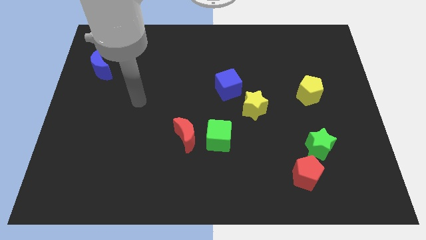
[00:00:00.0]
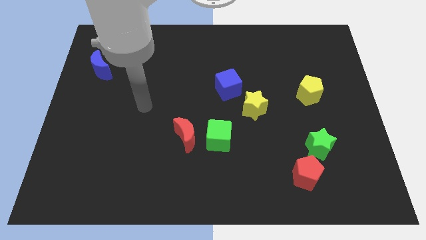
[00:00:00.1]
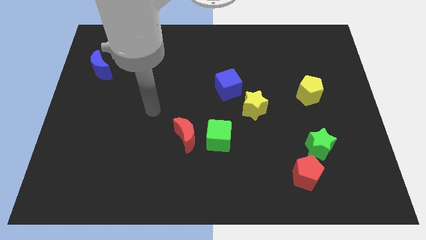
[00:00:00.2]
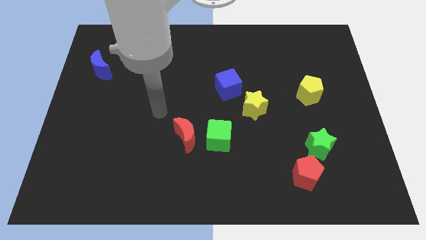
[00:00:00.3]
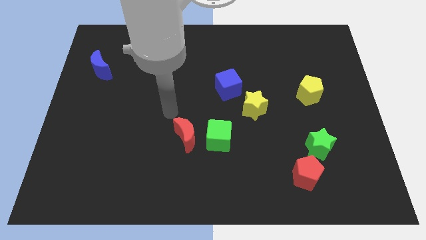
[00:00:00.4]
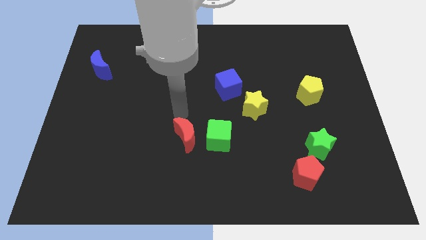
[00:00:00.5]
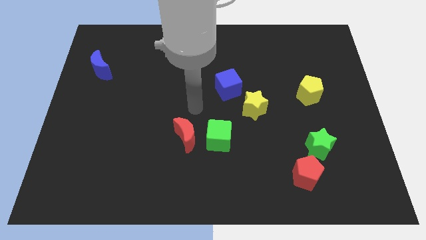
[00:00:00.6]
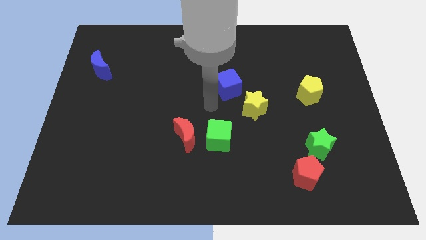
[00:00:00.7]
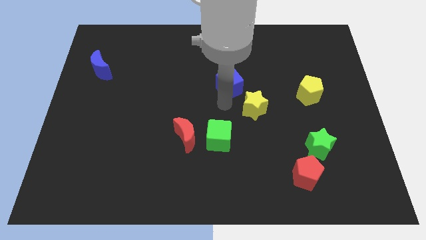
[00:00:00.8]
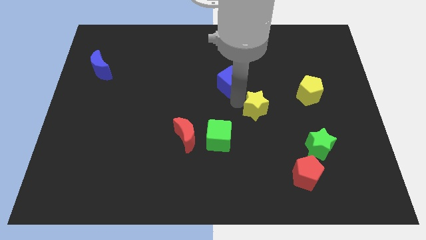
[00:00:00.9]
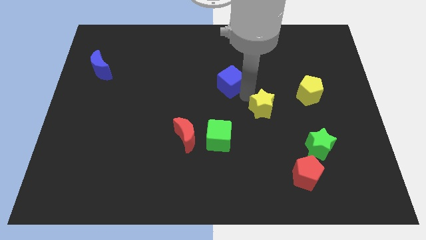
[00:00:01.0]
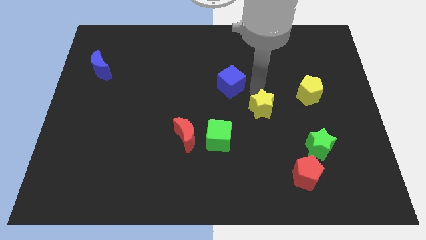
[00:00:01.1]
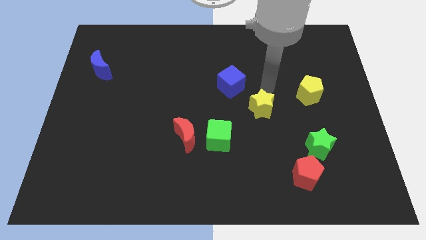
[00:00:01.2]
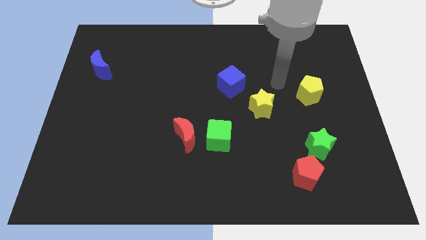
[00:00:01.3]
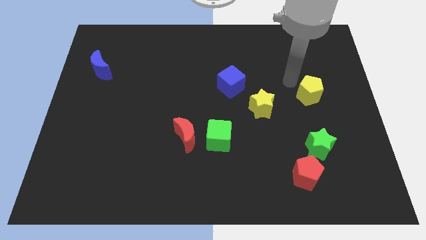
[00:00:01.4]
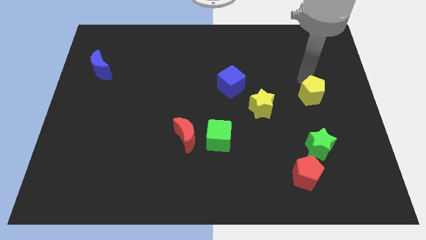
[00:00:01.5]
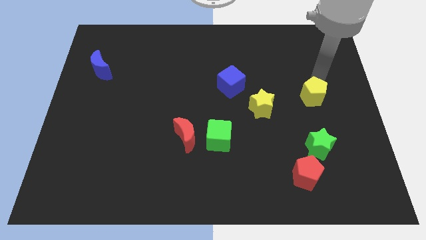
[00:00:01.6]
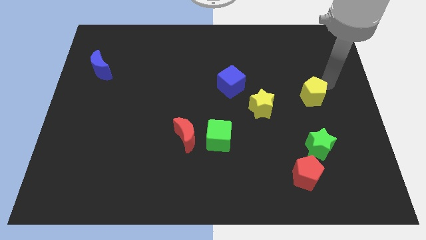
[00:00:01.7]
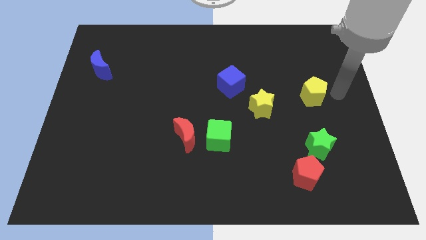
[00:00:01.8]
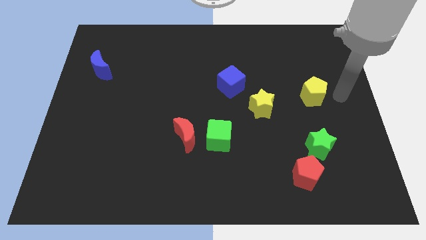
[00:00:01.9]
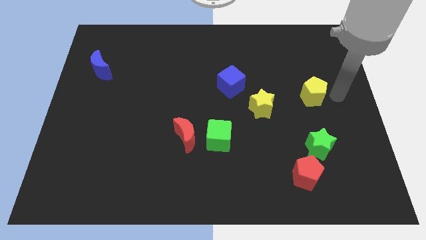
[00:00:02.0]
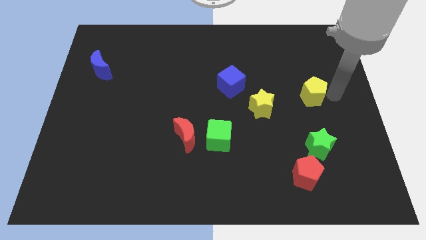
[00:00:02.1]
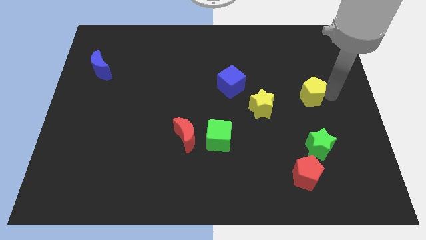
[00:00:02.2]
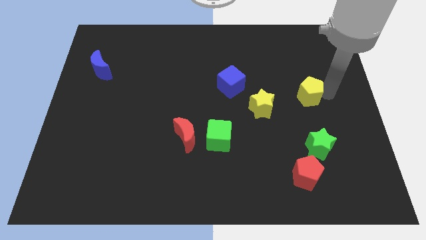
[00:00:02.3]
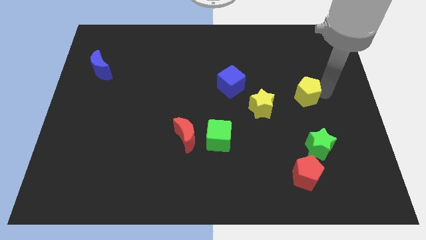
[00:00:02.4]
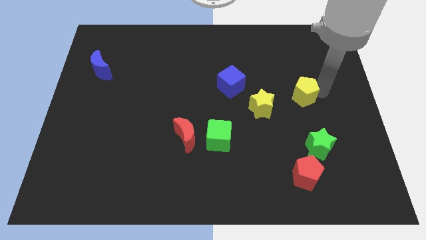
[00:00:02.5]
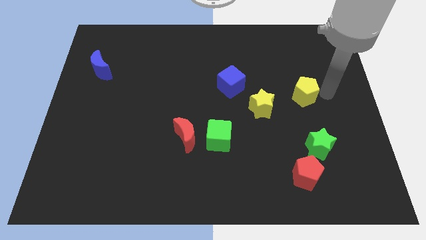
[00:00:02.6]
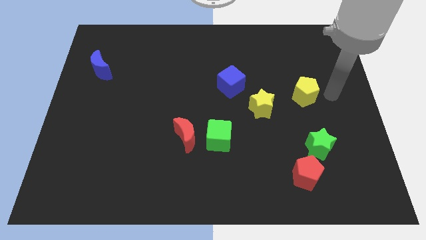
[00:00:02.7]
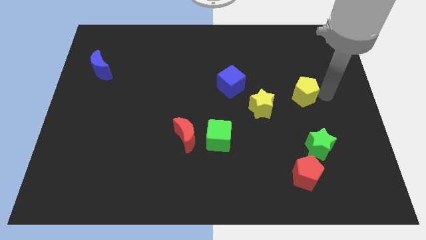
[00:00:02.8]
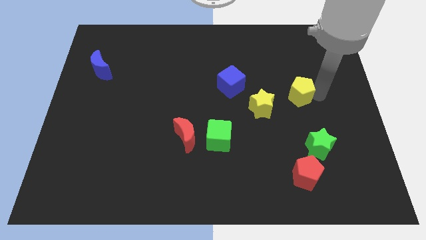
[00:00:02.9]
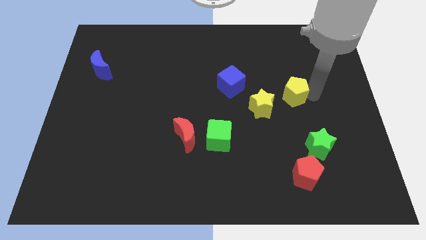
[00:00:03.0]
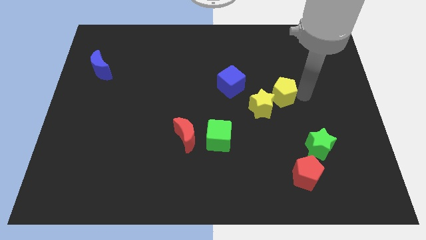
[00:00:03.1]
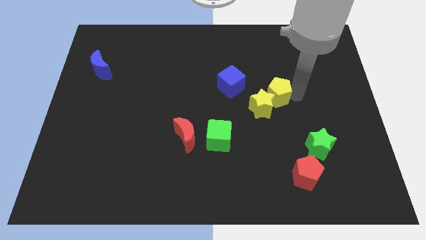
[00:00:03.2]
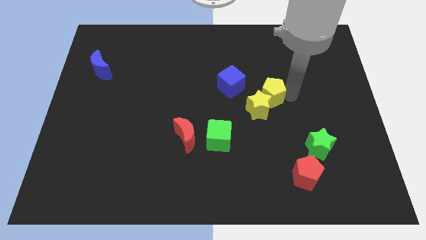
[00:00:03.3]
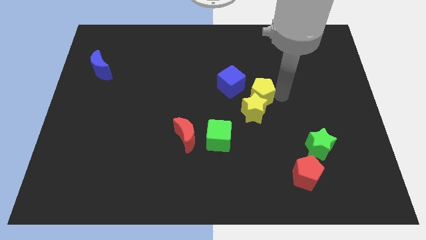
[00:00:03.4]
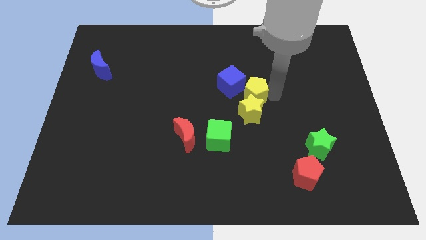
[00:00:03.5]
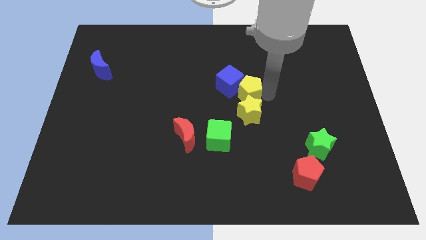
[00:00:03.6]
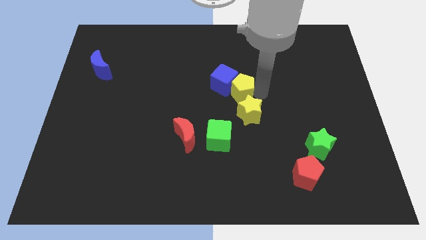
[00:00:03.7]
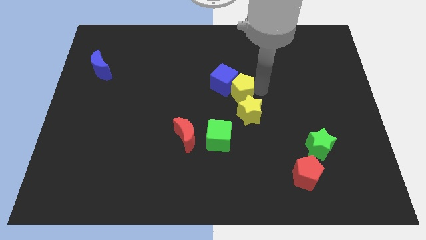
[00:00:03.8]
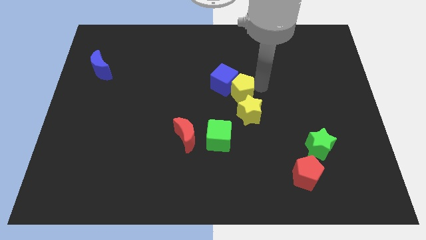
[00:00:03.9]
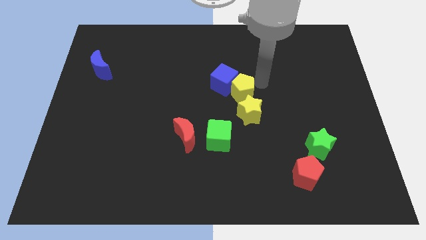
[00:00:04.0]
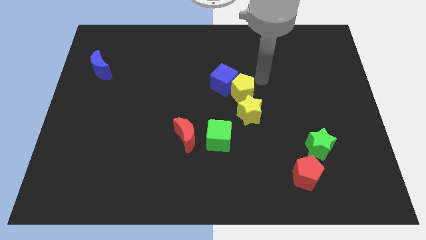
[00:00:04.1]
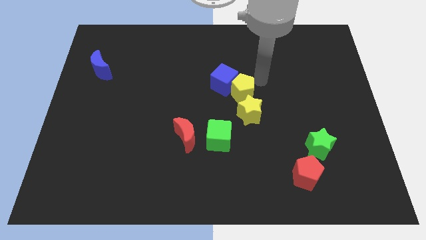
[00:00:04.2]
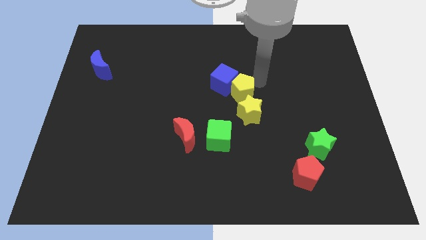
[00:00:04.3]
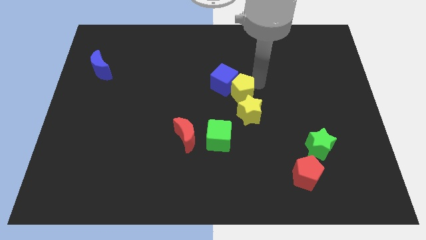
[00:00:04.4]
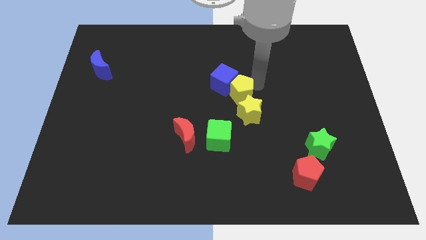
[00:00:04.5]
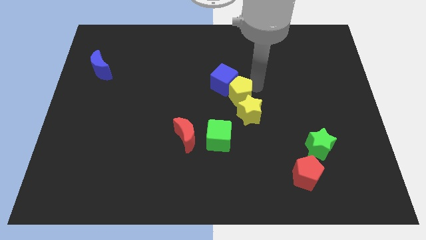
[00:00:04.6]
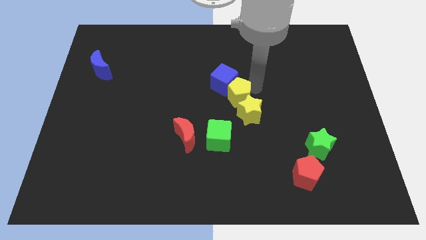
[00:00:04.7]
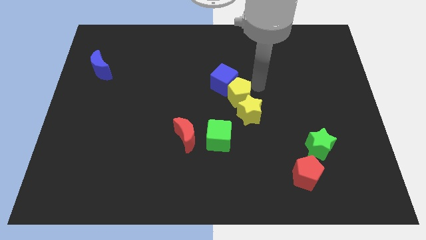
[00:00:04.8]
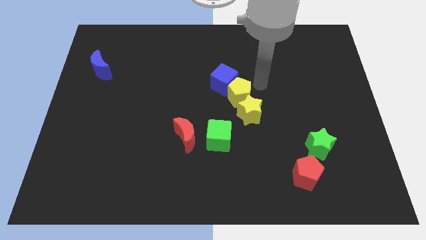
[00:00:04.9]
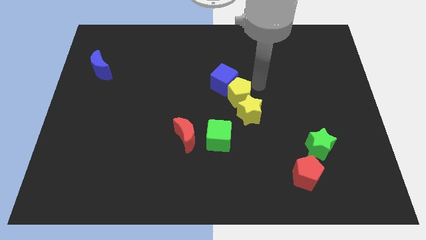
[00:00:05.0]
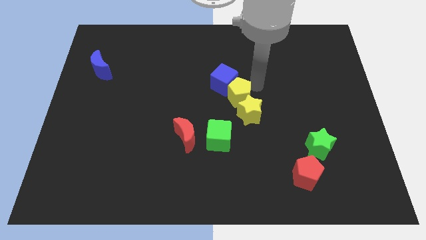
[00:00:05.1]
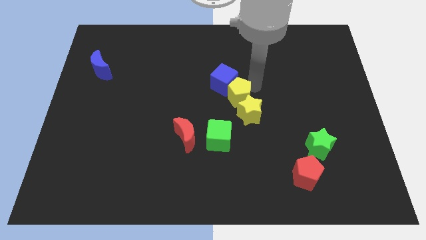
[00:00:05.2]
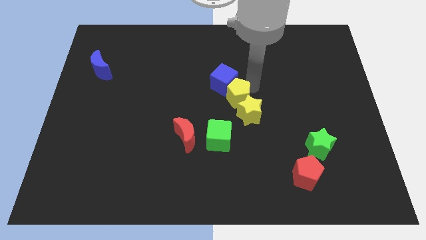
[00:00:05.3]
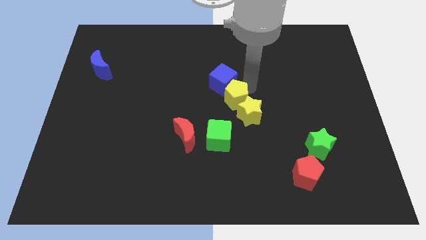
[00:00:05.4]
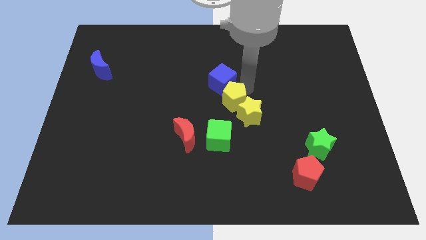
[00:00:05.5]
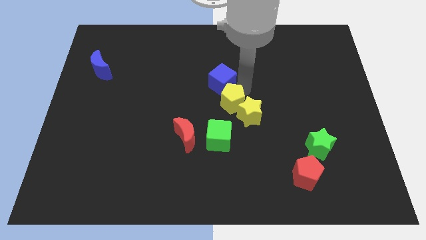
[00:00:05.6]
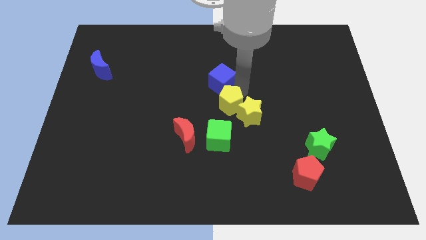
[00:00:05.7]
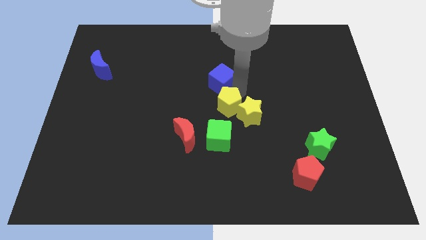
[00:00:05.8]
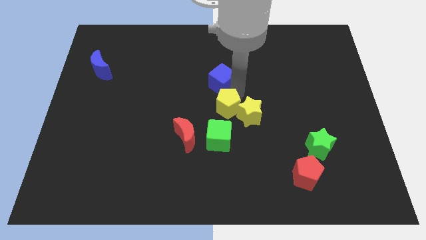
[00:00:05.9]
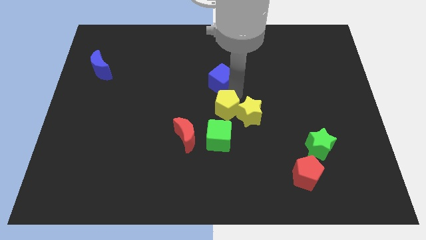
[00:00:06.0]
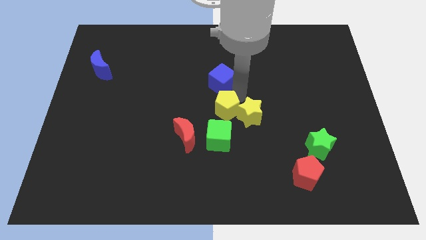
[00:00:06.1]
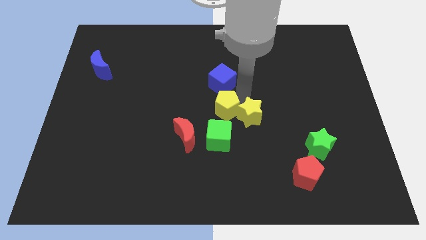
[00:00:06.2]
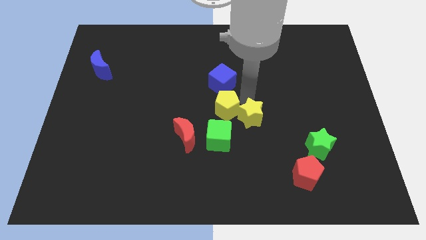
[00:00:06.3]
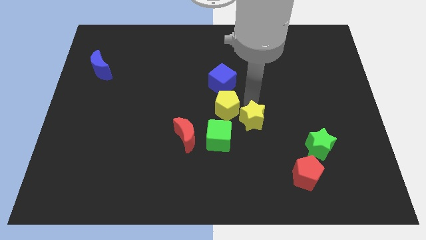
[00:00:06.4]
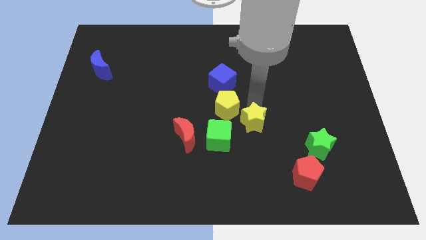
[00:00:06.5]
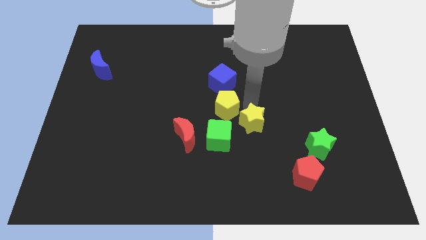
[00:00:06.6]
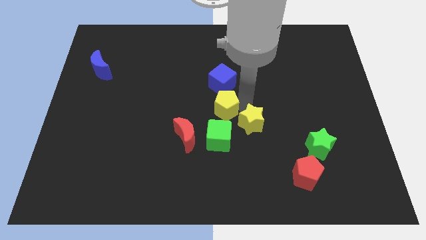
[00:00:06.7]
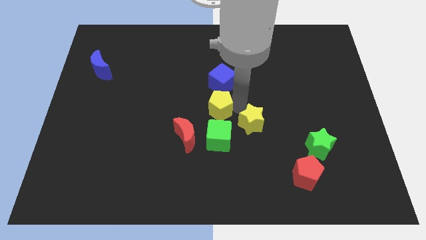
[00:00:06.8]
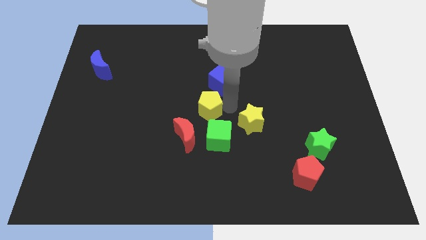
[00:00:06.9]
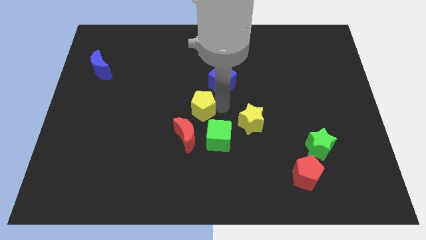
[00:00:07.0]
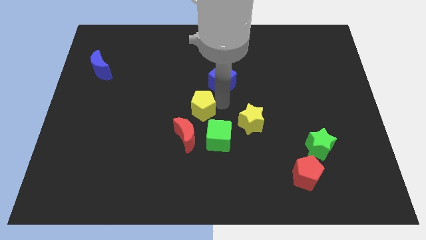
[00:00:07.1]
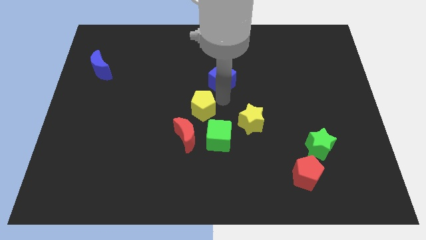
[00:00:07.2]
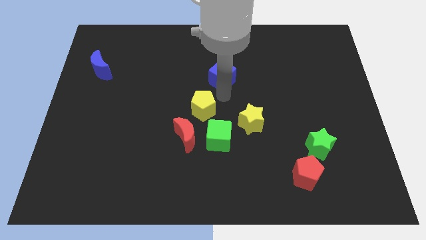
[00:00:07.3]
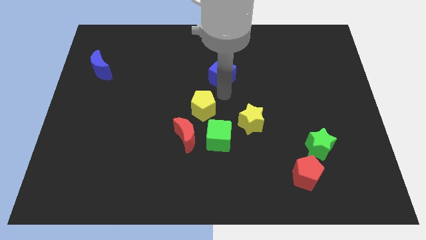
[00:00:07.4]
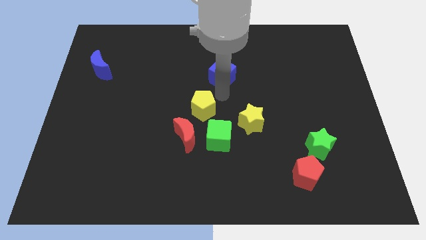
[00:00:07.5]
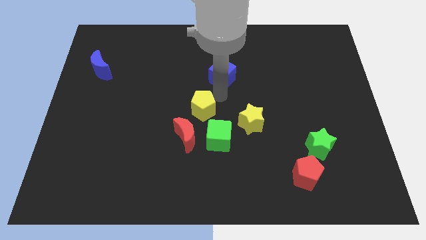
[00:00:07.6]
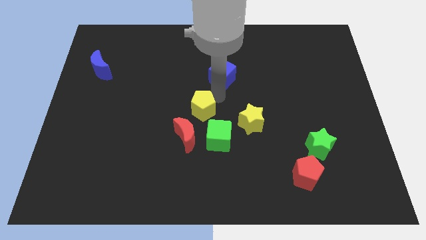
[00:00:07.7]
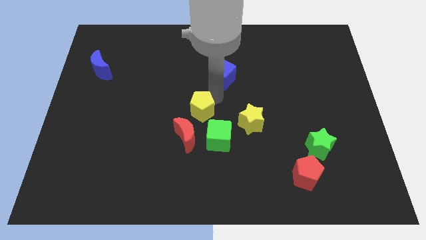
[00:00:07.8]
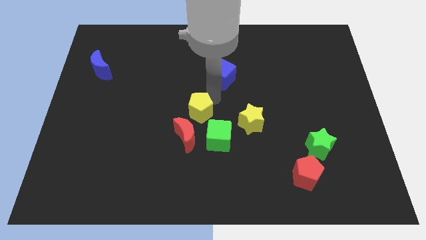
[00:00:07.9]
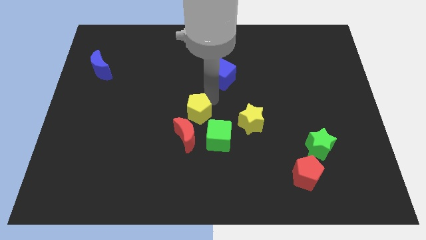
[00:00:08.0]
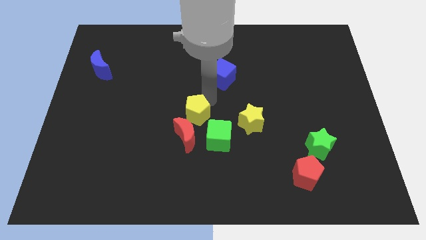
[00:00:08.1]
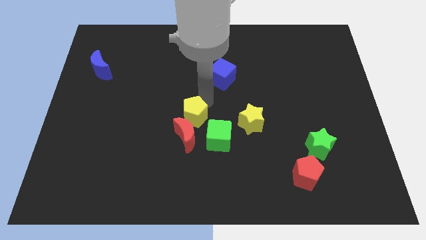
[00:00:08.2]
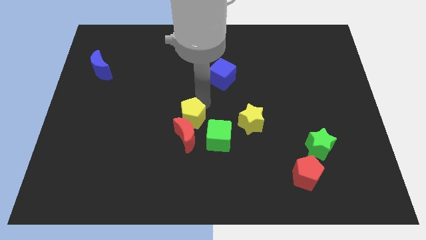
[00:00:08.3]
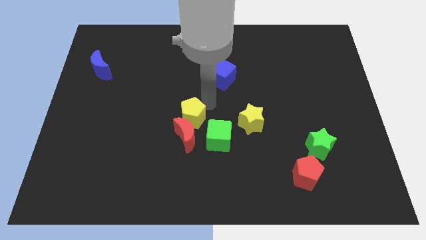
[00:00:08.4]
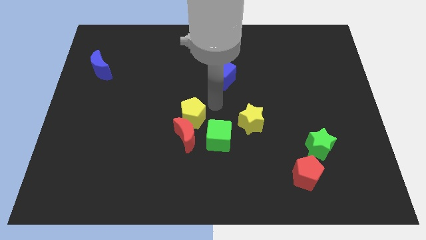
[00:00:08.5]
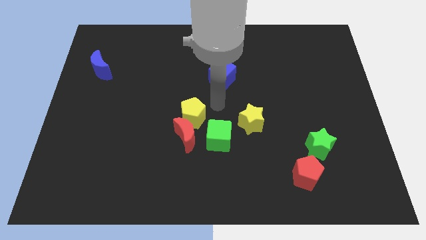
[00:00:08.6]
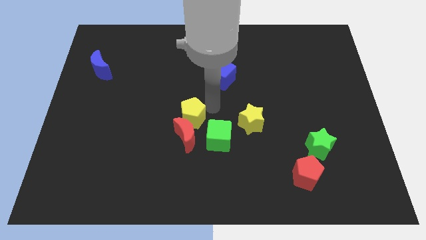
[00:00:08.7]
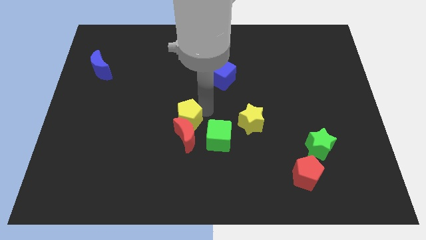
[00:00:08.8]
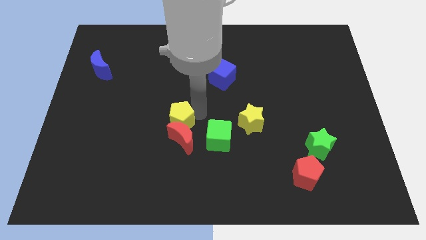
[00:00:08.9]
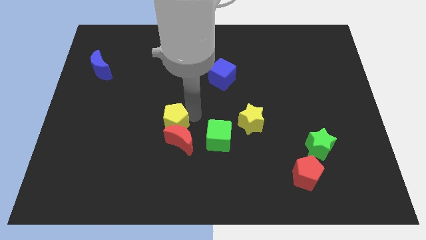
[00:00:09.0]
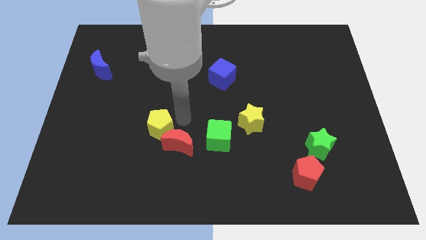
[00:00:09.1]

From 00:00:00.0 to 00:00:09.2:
move the yellow pentagon left of the red moon
